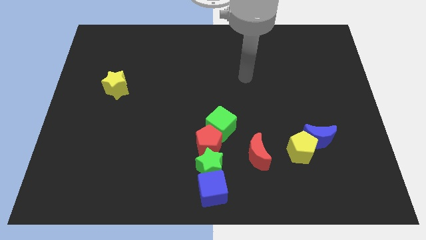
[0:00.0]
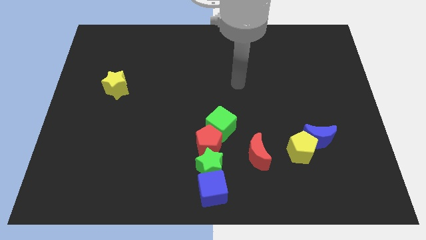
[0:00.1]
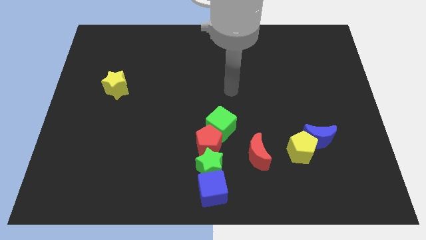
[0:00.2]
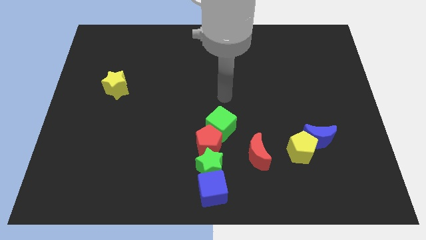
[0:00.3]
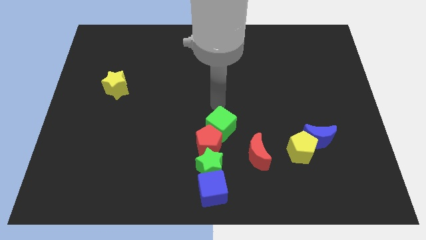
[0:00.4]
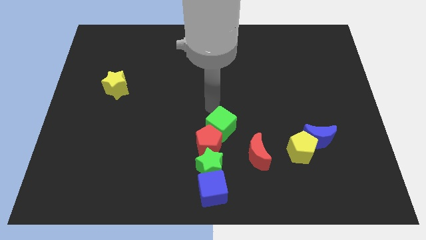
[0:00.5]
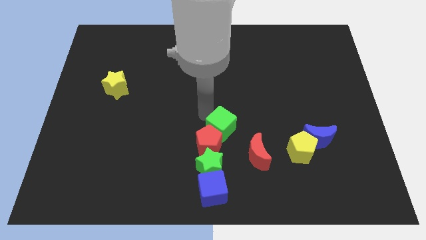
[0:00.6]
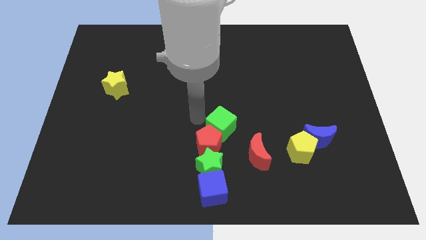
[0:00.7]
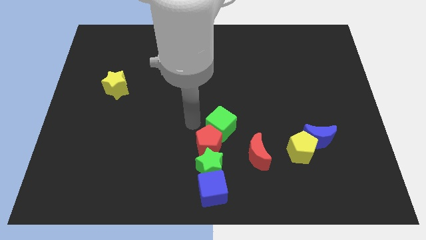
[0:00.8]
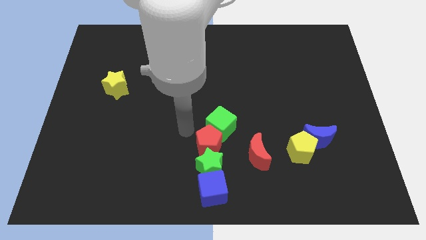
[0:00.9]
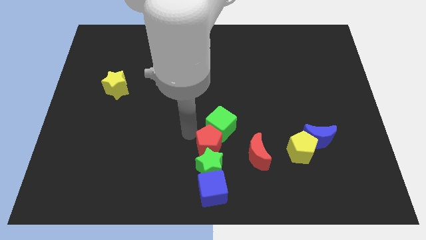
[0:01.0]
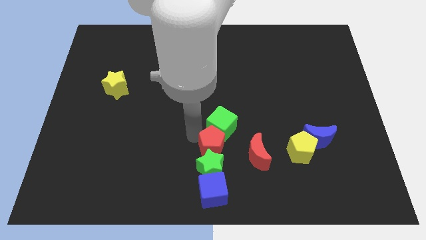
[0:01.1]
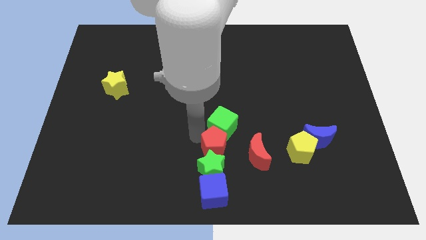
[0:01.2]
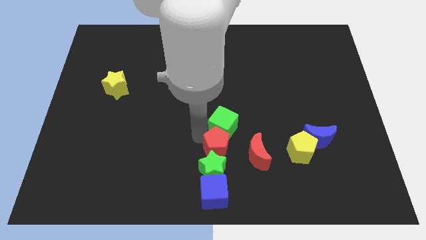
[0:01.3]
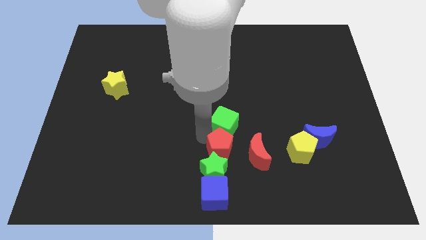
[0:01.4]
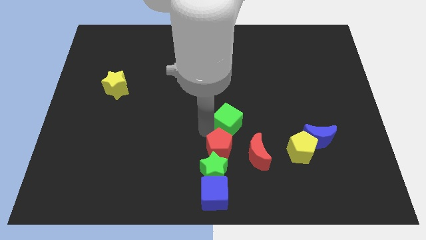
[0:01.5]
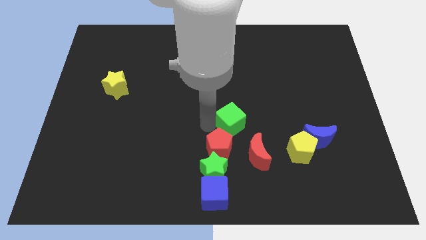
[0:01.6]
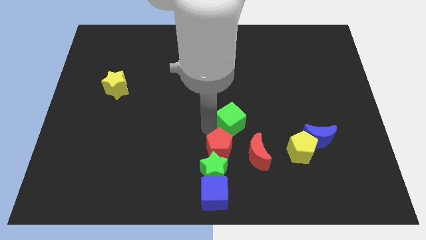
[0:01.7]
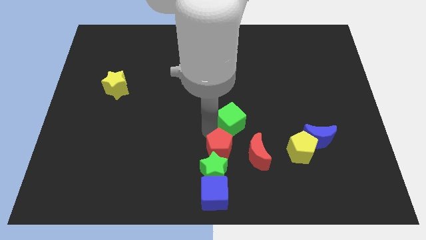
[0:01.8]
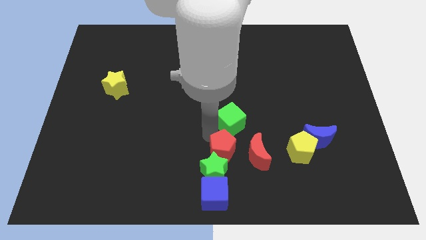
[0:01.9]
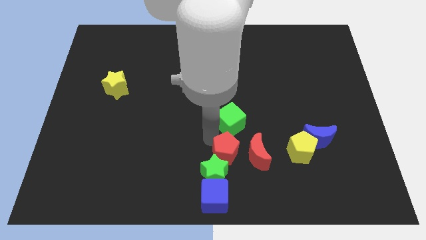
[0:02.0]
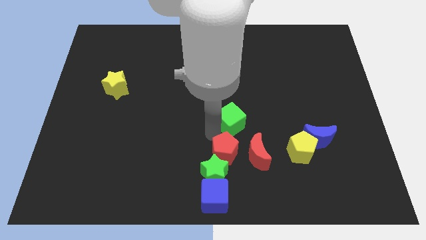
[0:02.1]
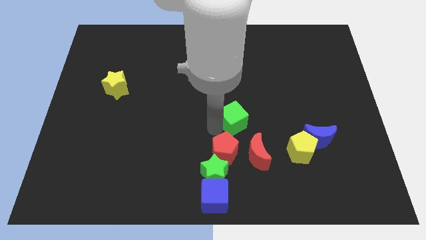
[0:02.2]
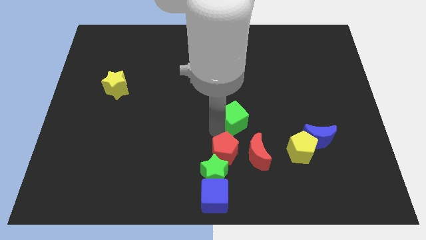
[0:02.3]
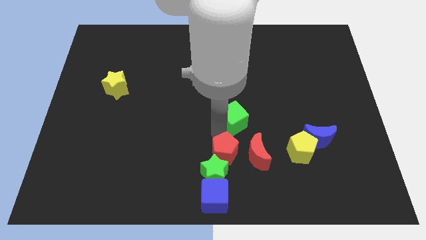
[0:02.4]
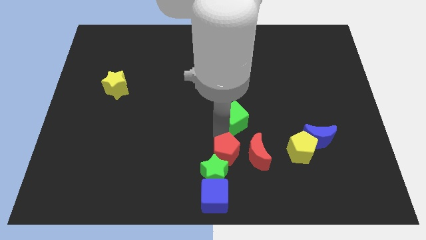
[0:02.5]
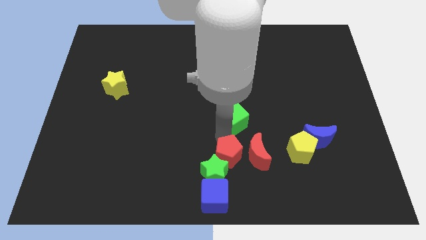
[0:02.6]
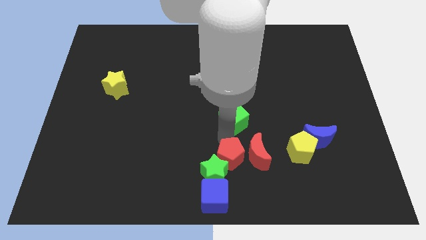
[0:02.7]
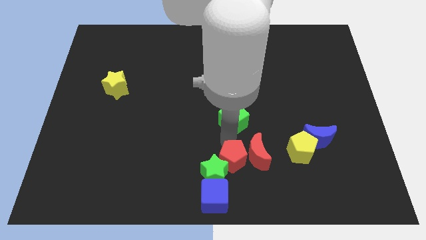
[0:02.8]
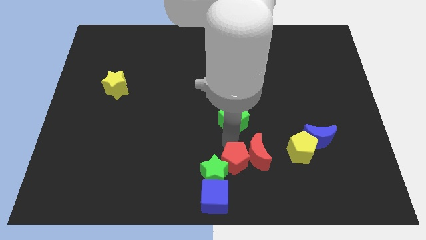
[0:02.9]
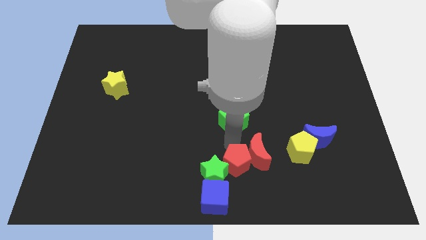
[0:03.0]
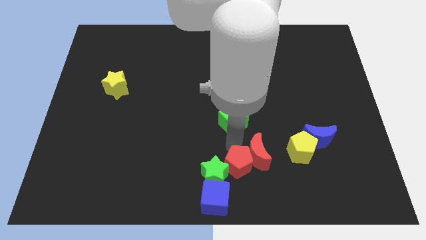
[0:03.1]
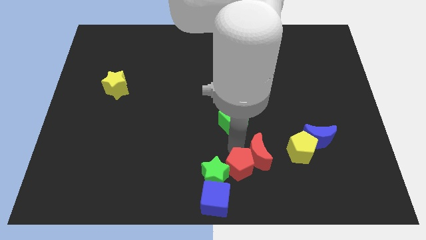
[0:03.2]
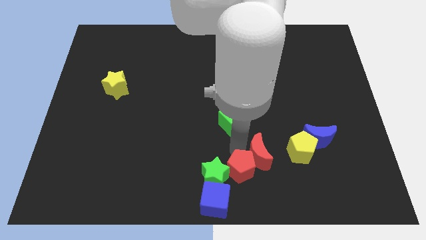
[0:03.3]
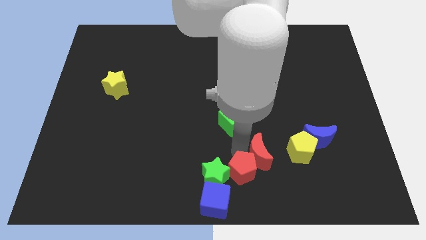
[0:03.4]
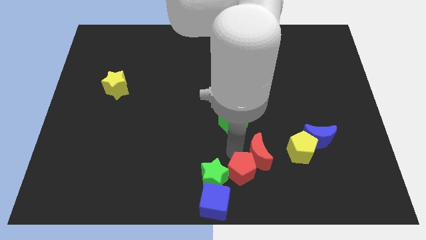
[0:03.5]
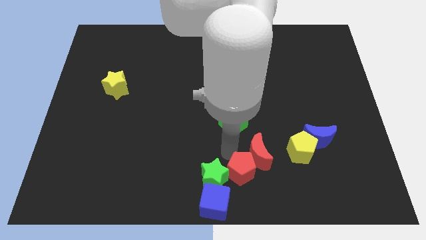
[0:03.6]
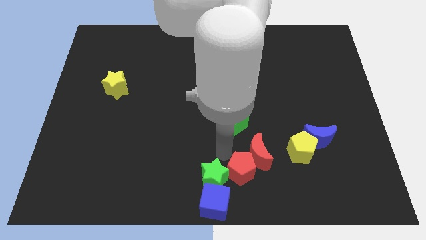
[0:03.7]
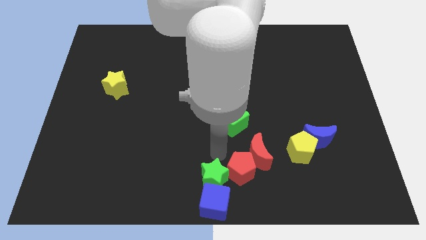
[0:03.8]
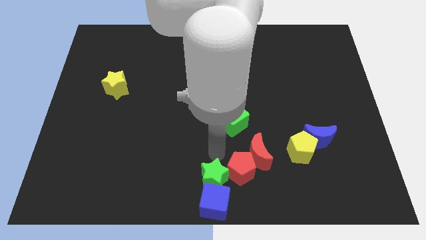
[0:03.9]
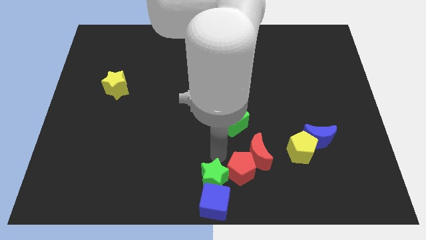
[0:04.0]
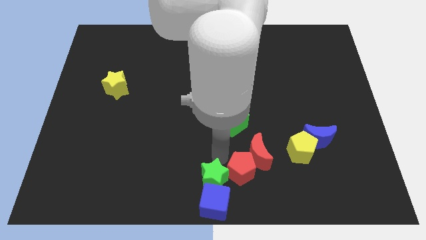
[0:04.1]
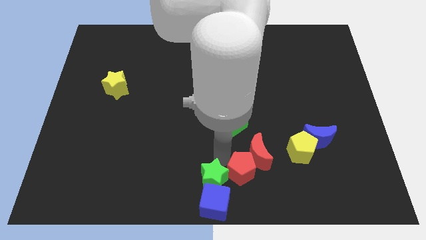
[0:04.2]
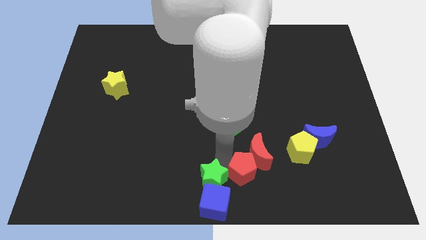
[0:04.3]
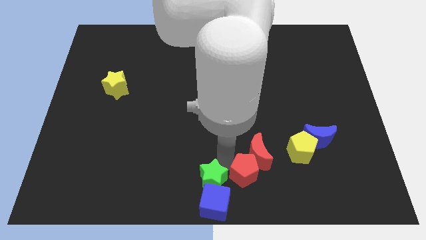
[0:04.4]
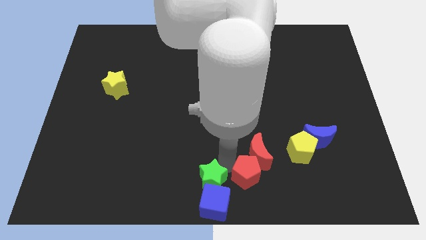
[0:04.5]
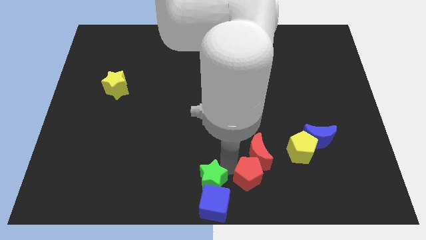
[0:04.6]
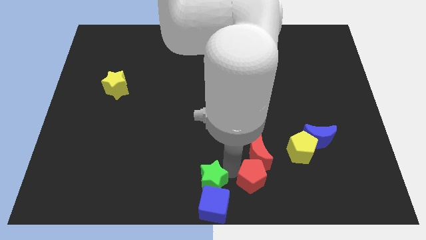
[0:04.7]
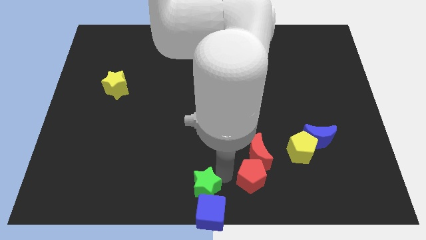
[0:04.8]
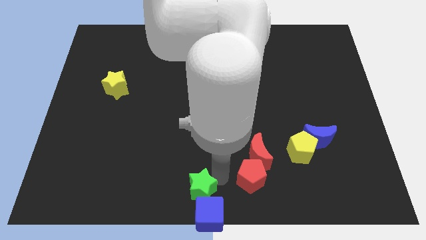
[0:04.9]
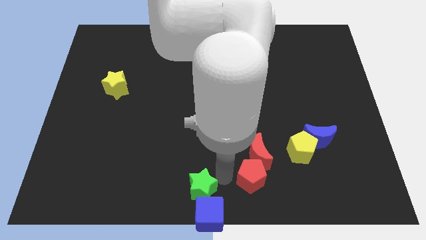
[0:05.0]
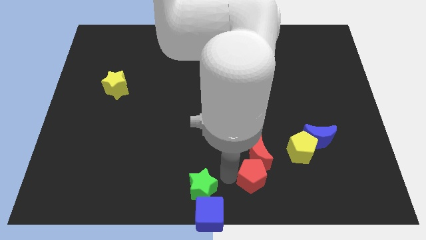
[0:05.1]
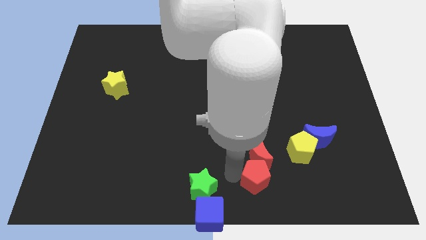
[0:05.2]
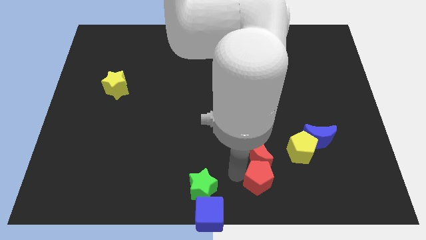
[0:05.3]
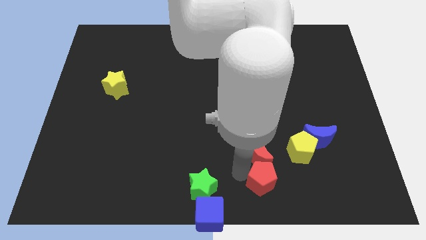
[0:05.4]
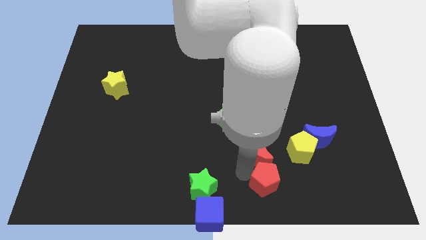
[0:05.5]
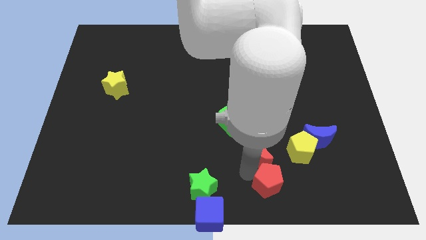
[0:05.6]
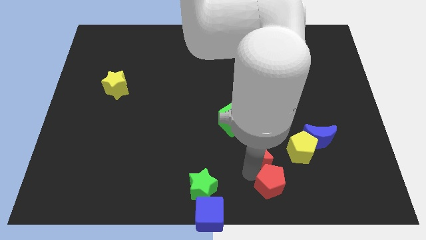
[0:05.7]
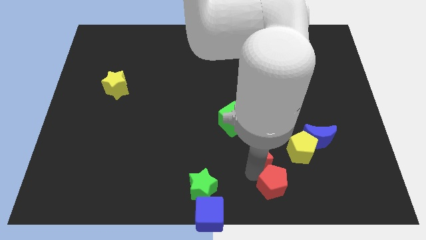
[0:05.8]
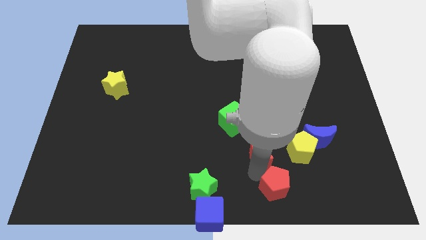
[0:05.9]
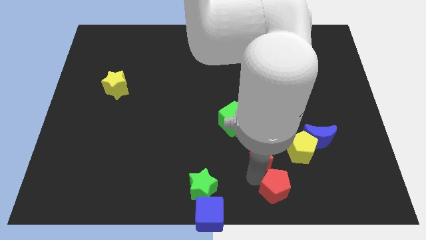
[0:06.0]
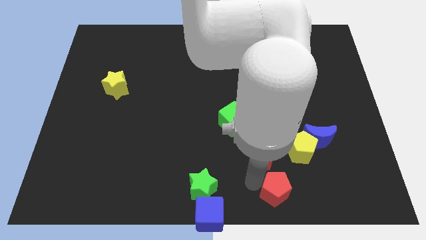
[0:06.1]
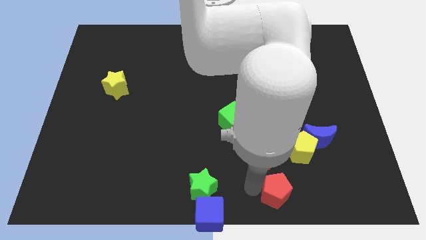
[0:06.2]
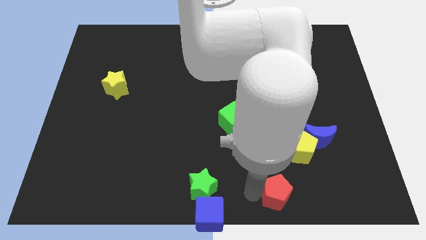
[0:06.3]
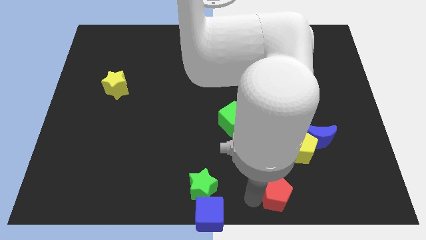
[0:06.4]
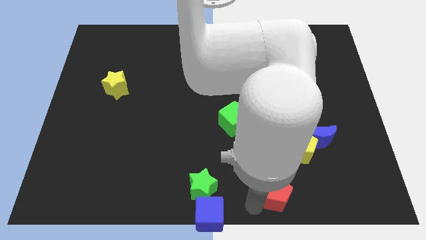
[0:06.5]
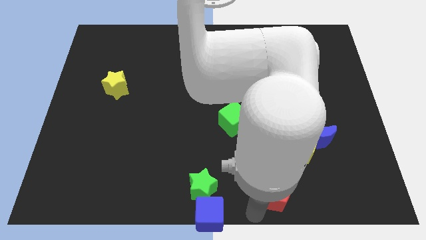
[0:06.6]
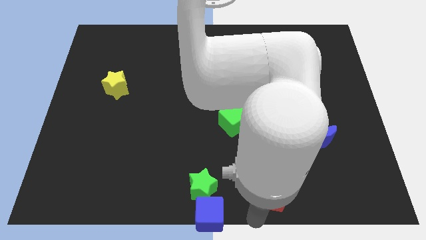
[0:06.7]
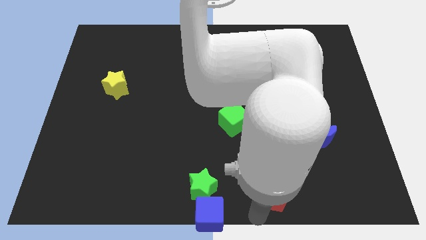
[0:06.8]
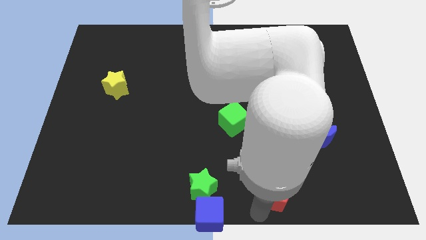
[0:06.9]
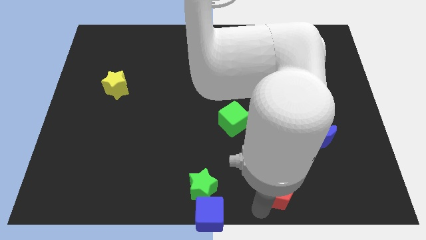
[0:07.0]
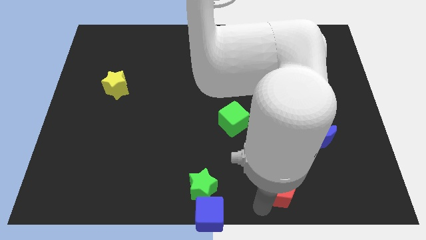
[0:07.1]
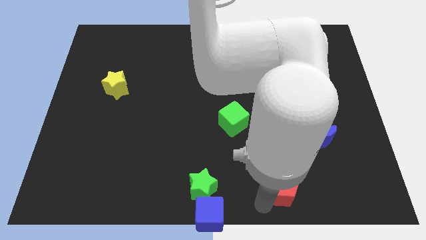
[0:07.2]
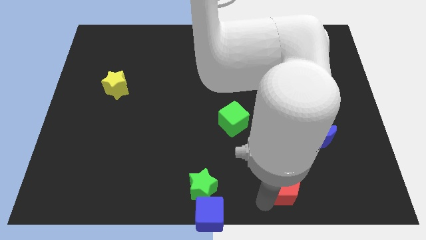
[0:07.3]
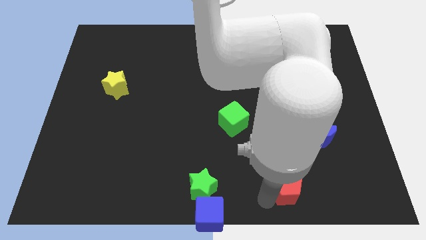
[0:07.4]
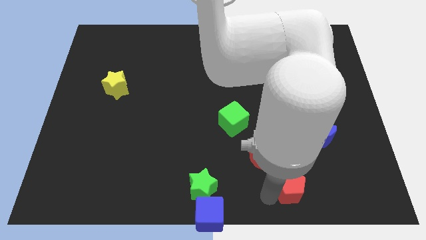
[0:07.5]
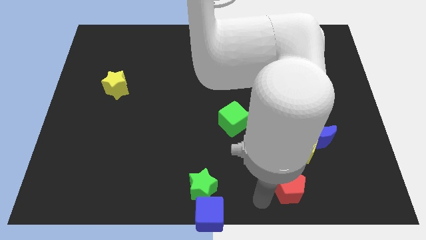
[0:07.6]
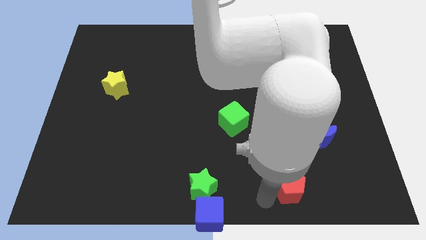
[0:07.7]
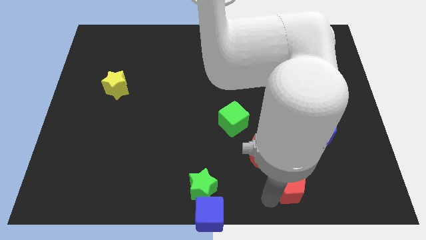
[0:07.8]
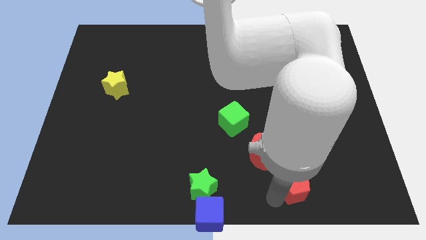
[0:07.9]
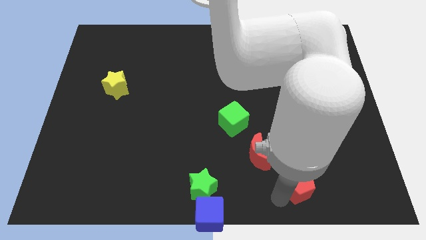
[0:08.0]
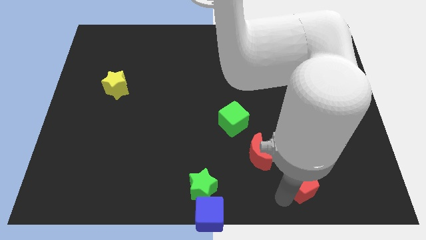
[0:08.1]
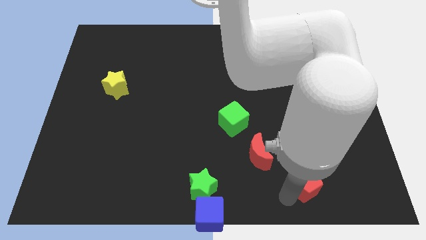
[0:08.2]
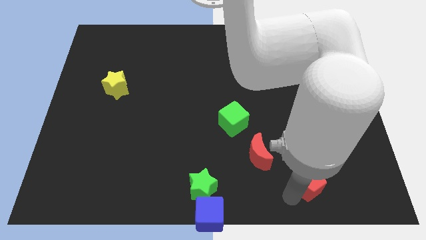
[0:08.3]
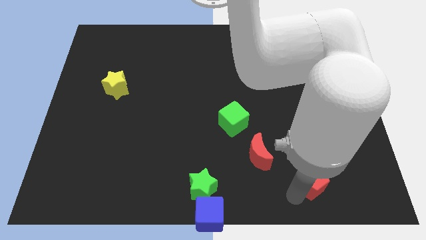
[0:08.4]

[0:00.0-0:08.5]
push the red pentagon to the bottom right side of the yellow pentagon
